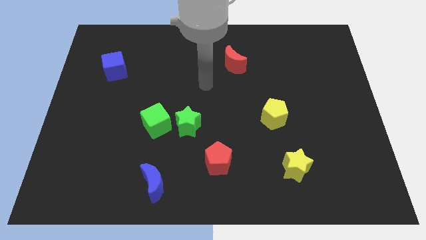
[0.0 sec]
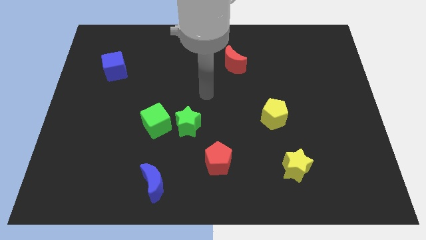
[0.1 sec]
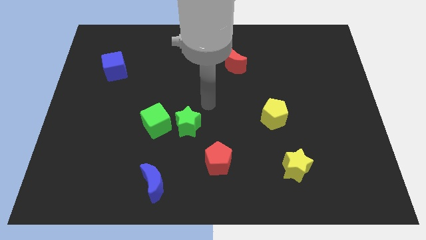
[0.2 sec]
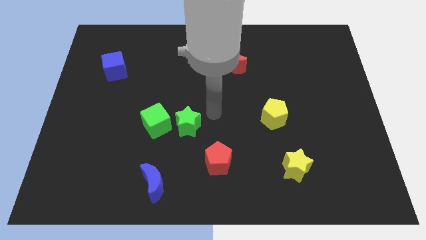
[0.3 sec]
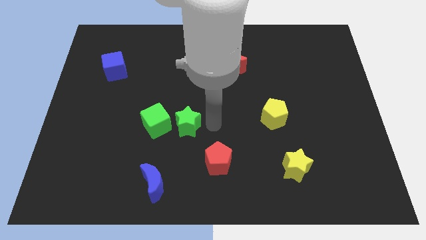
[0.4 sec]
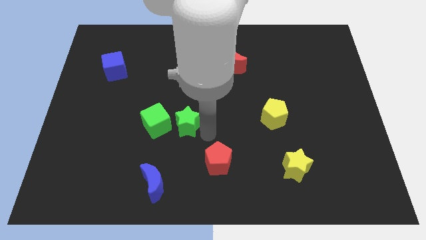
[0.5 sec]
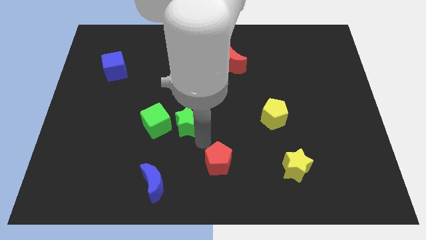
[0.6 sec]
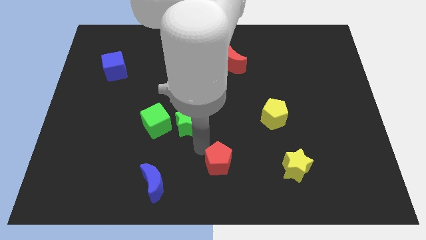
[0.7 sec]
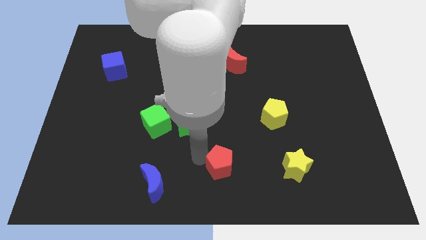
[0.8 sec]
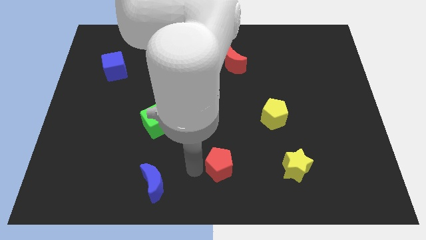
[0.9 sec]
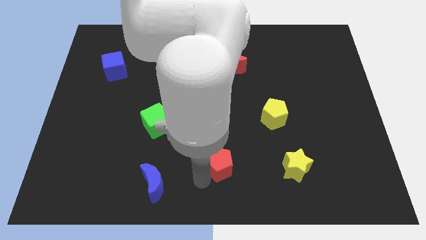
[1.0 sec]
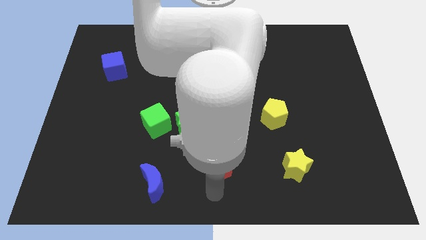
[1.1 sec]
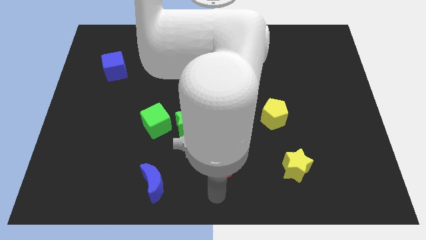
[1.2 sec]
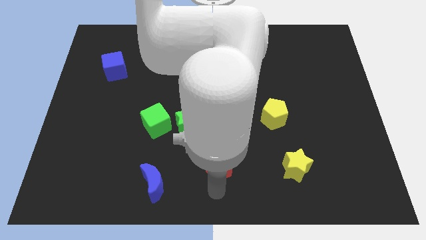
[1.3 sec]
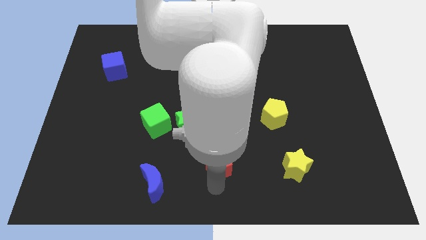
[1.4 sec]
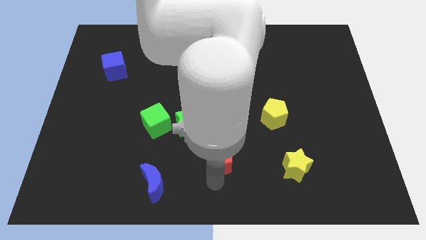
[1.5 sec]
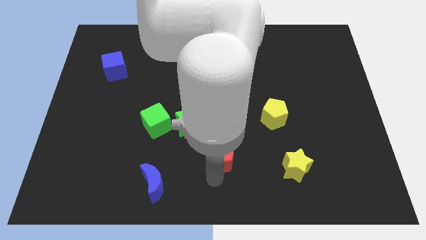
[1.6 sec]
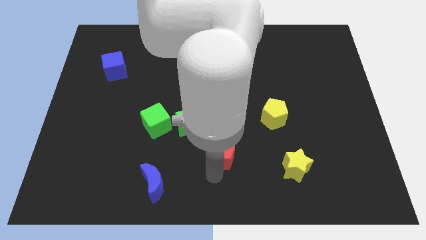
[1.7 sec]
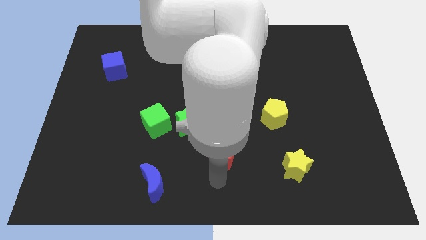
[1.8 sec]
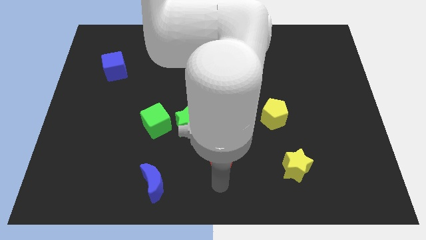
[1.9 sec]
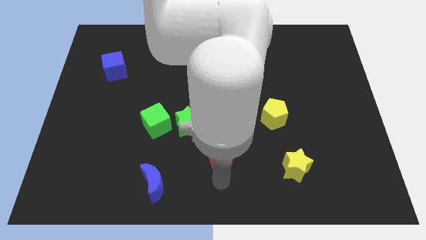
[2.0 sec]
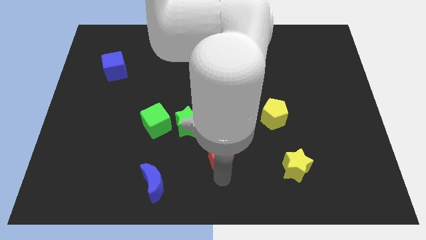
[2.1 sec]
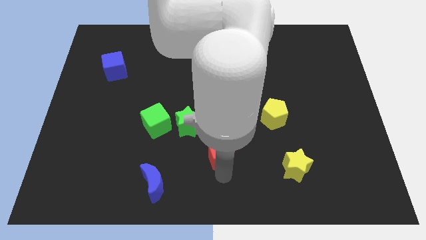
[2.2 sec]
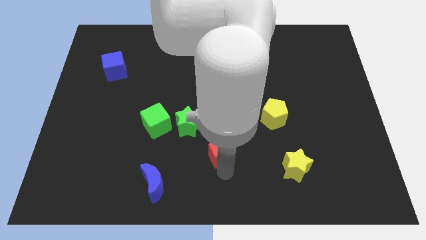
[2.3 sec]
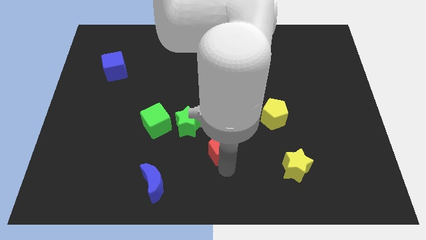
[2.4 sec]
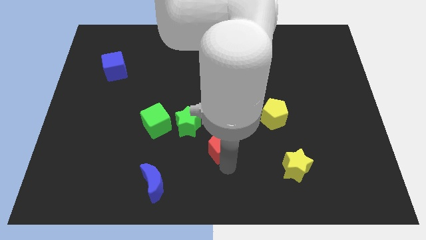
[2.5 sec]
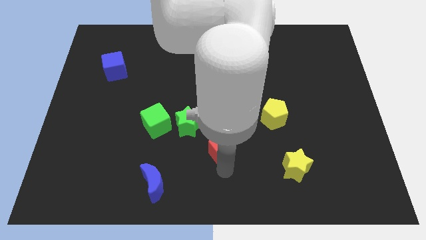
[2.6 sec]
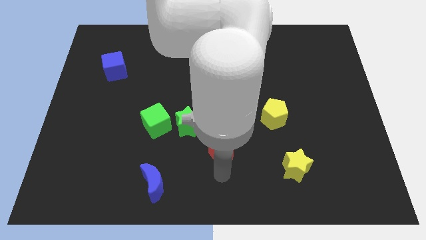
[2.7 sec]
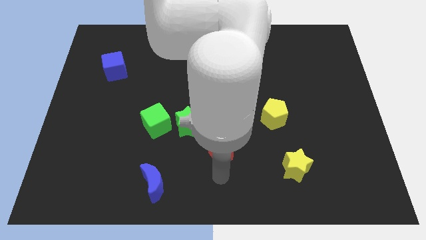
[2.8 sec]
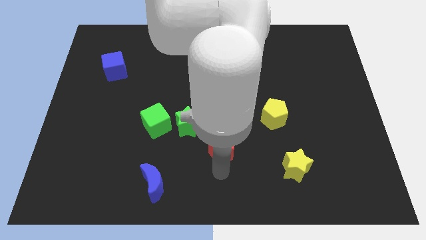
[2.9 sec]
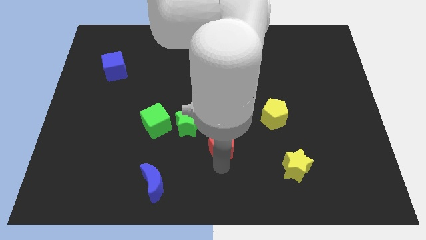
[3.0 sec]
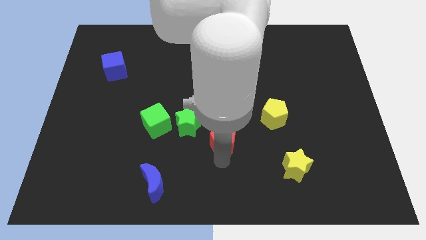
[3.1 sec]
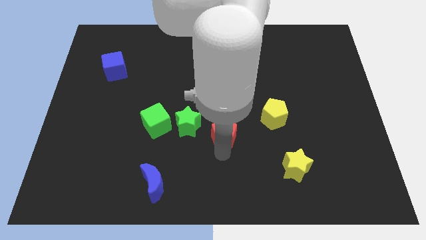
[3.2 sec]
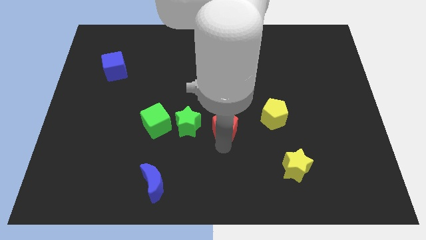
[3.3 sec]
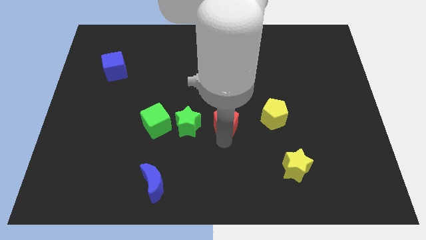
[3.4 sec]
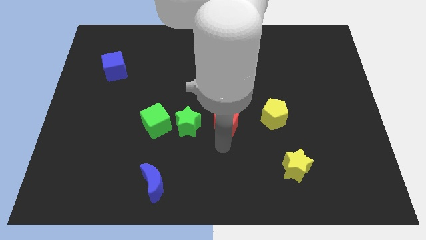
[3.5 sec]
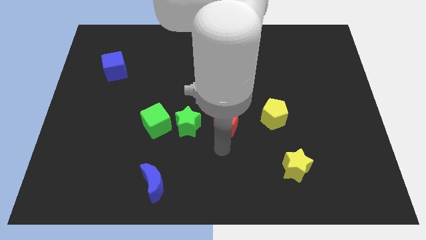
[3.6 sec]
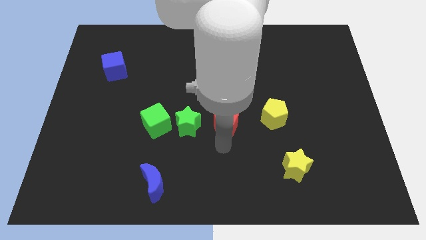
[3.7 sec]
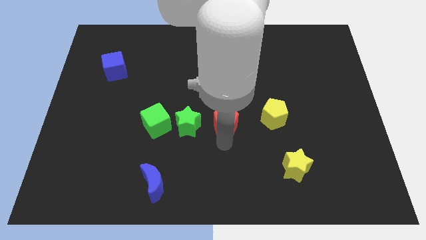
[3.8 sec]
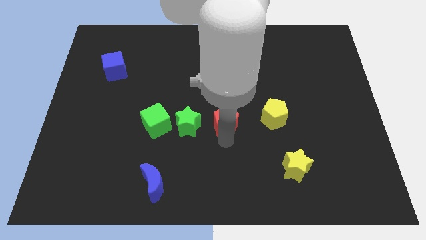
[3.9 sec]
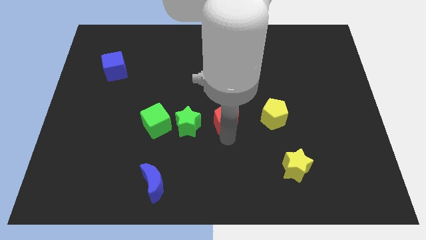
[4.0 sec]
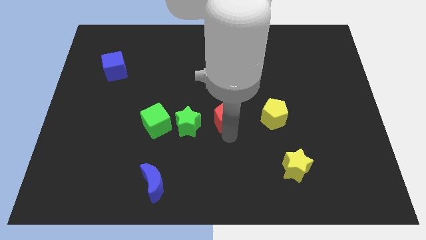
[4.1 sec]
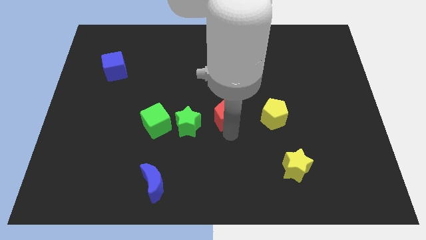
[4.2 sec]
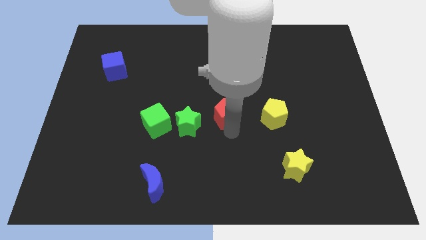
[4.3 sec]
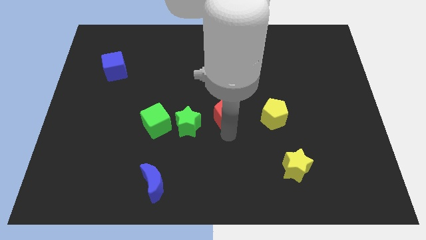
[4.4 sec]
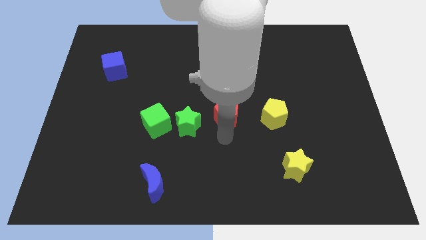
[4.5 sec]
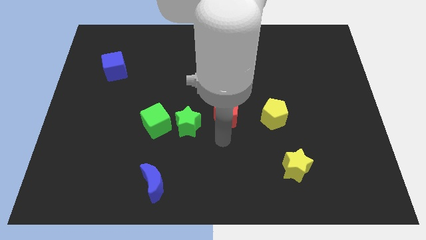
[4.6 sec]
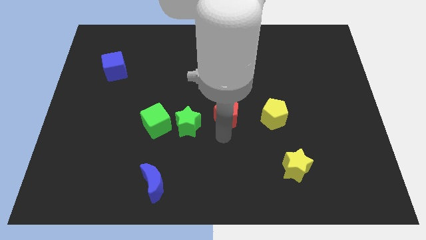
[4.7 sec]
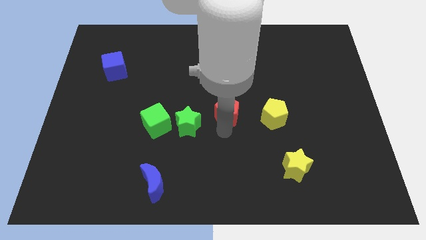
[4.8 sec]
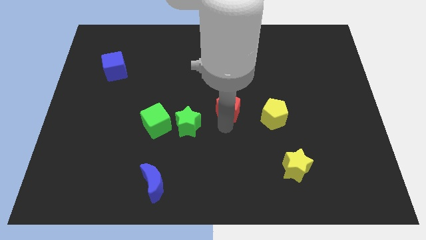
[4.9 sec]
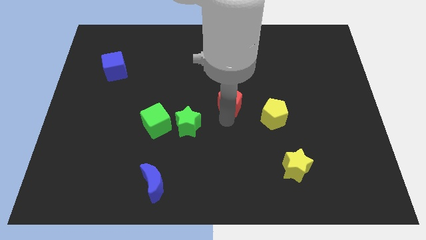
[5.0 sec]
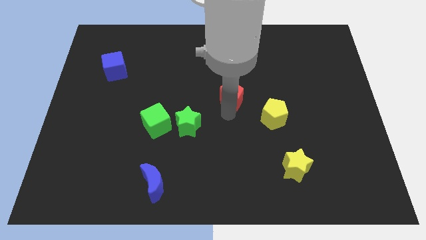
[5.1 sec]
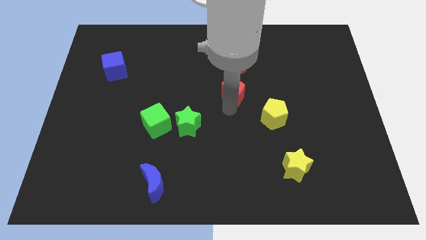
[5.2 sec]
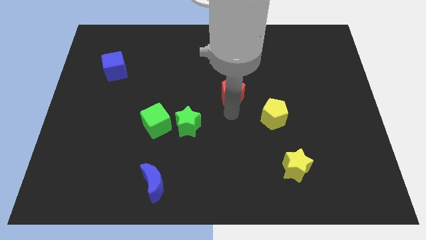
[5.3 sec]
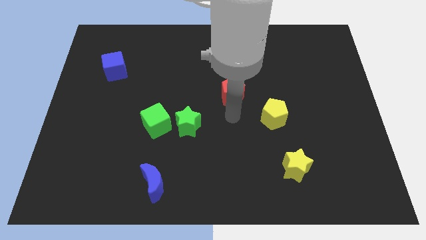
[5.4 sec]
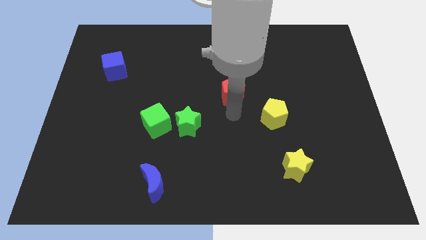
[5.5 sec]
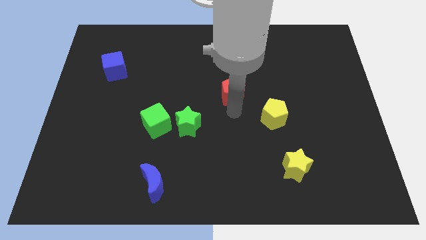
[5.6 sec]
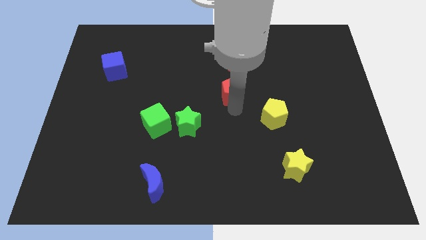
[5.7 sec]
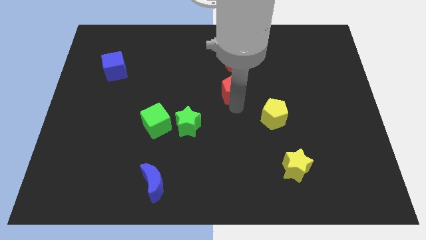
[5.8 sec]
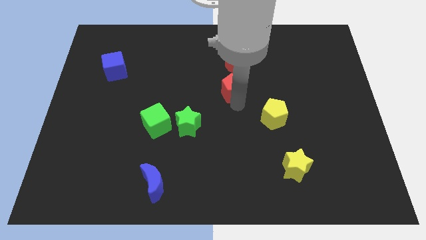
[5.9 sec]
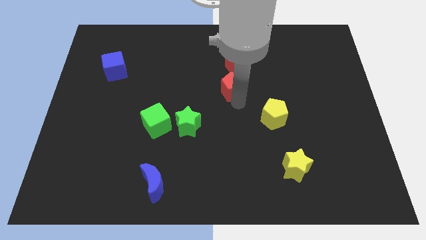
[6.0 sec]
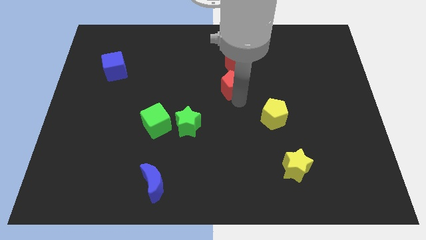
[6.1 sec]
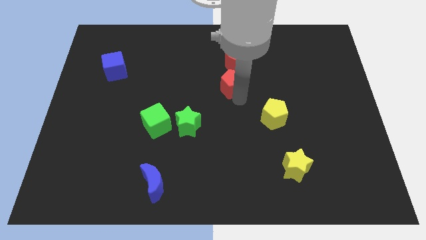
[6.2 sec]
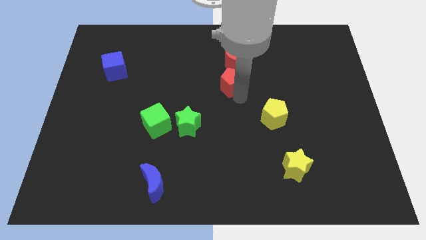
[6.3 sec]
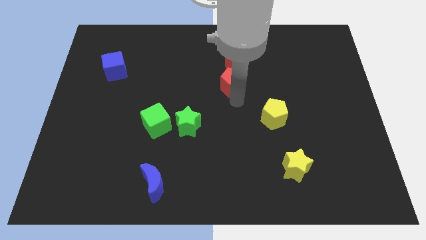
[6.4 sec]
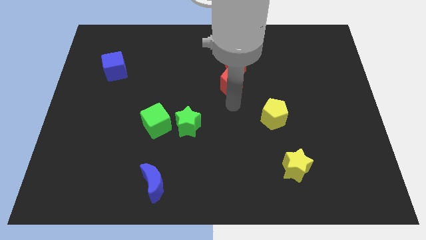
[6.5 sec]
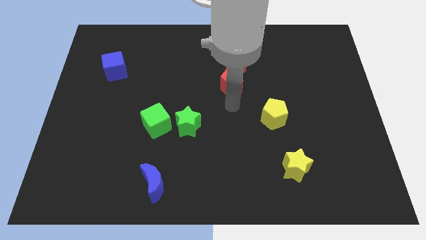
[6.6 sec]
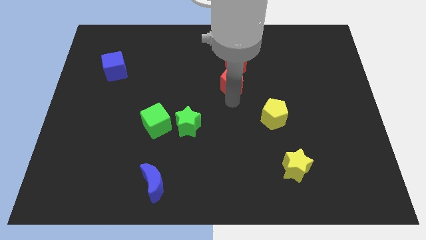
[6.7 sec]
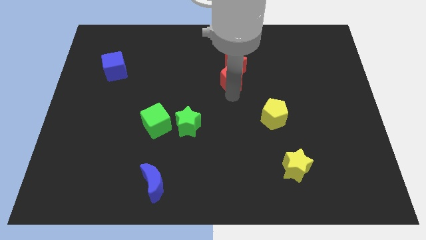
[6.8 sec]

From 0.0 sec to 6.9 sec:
slide the red pentagon towards the red moon
